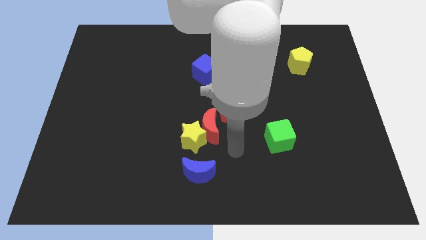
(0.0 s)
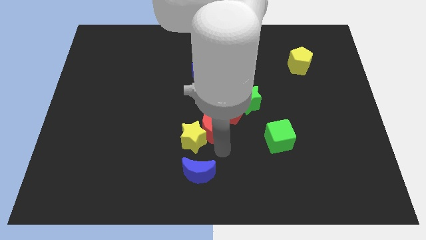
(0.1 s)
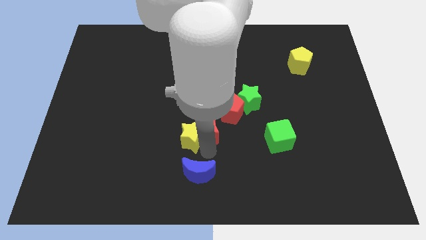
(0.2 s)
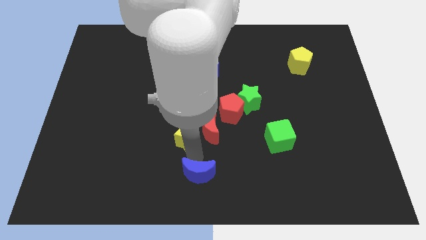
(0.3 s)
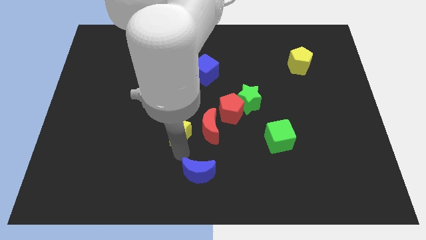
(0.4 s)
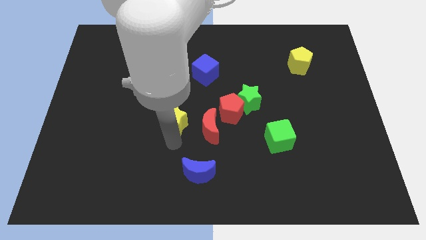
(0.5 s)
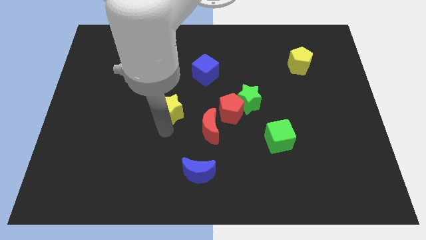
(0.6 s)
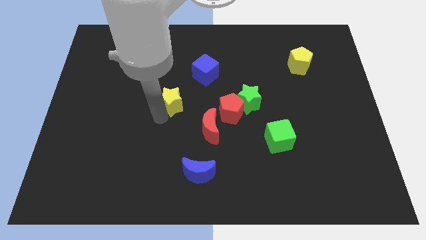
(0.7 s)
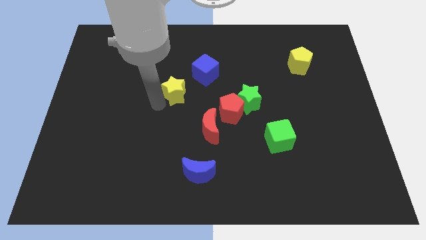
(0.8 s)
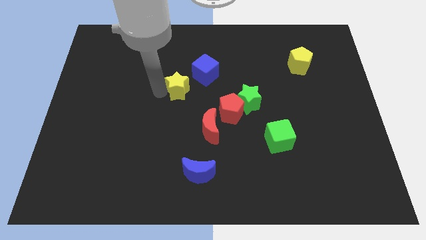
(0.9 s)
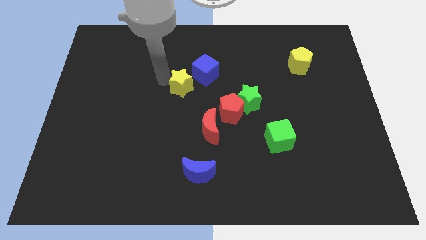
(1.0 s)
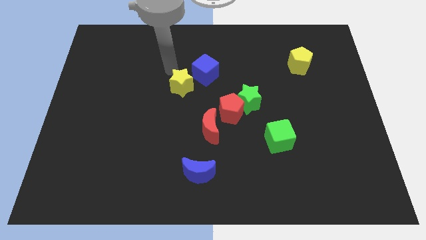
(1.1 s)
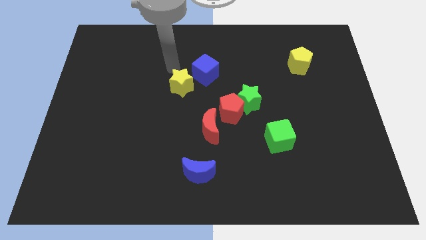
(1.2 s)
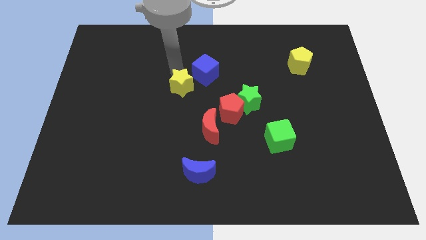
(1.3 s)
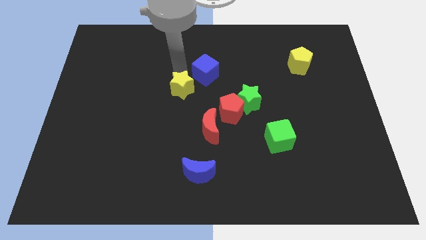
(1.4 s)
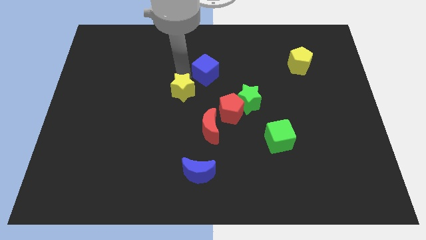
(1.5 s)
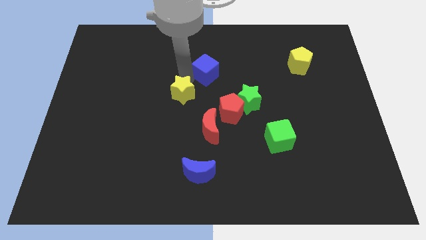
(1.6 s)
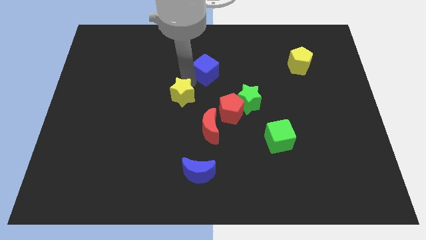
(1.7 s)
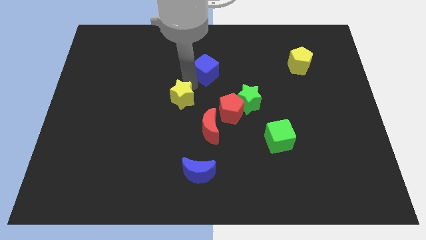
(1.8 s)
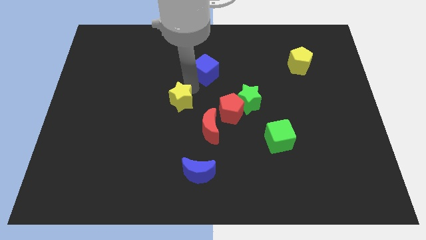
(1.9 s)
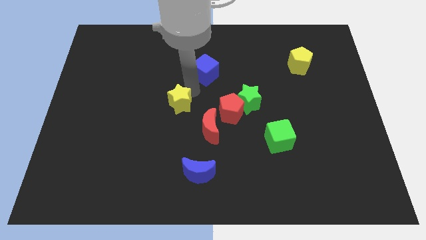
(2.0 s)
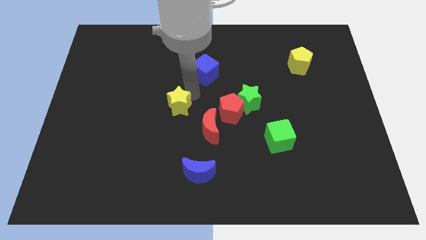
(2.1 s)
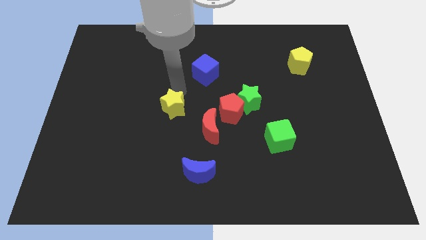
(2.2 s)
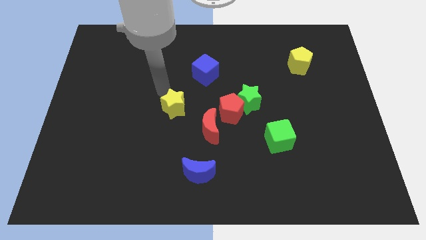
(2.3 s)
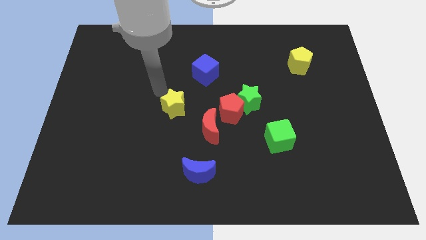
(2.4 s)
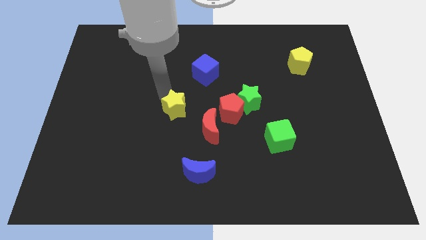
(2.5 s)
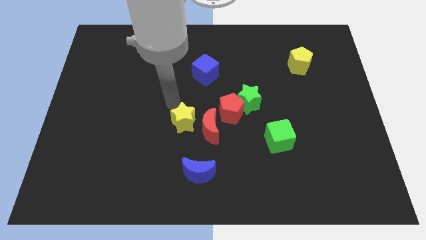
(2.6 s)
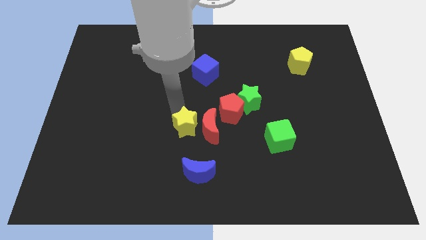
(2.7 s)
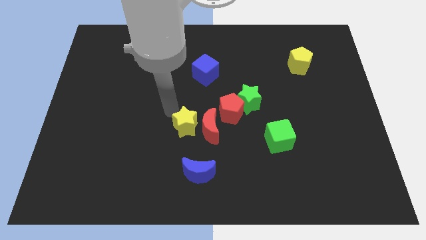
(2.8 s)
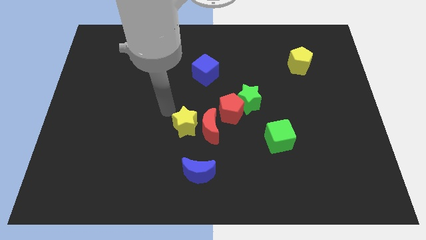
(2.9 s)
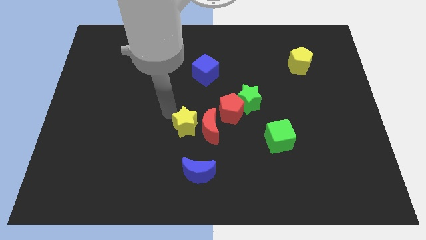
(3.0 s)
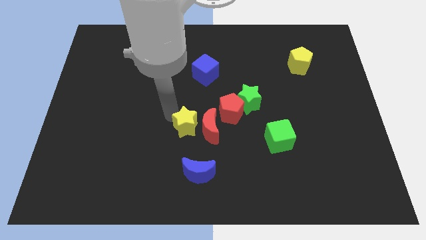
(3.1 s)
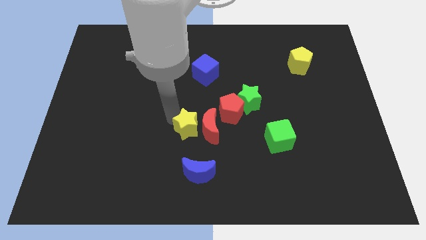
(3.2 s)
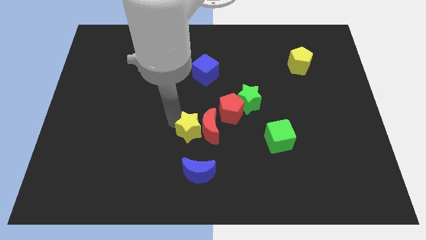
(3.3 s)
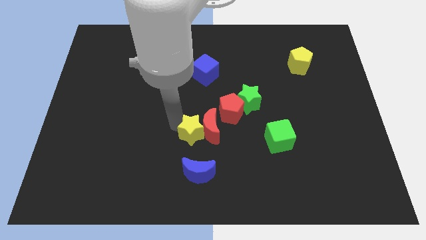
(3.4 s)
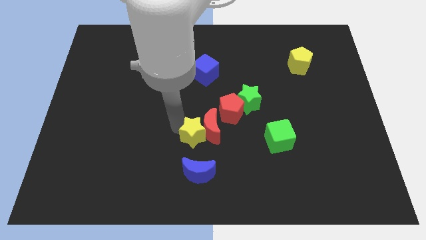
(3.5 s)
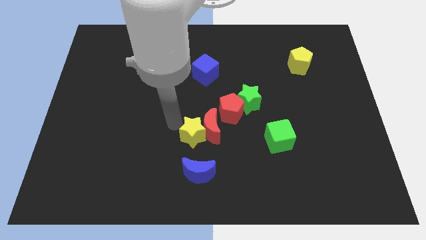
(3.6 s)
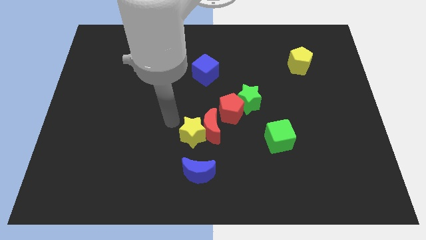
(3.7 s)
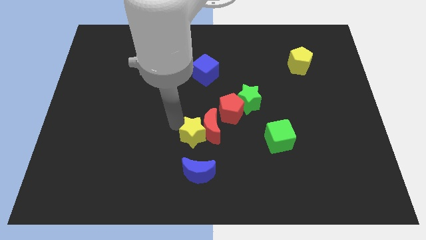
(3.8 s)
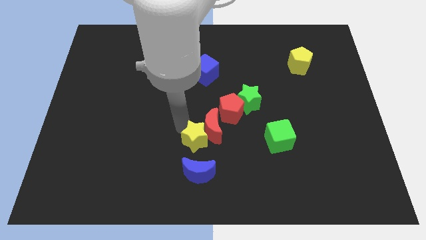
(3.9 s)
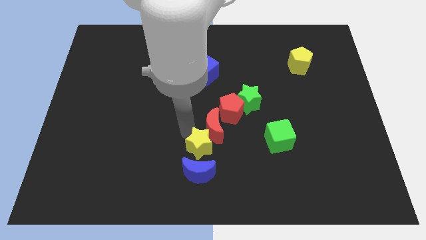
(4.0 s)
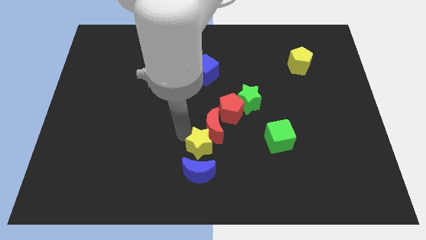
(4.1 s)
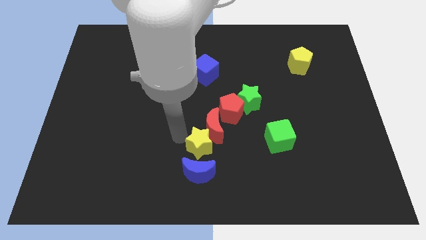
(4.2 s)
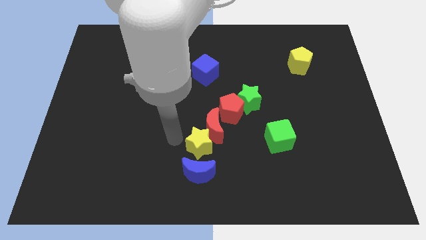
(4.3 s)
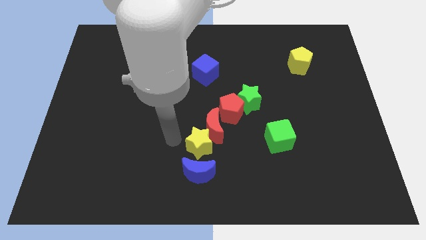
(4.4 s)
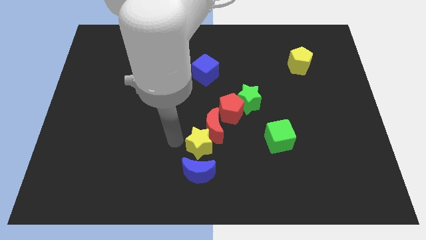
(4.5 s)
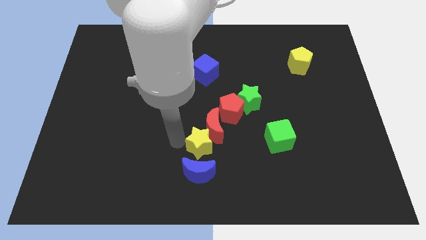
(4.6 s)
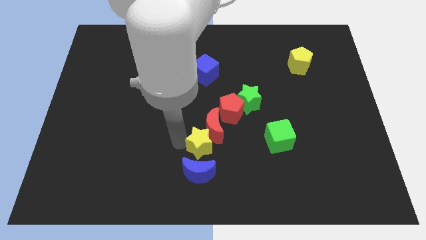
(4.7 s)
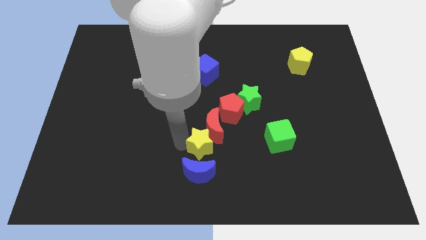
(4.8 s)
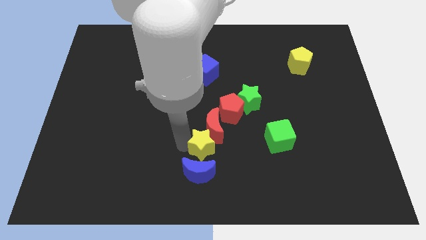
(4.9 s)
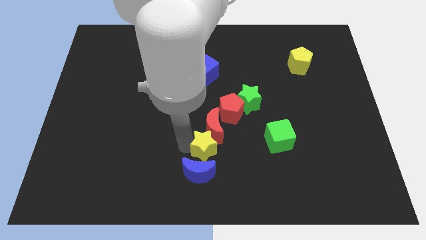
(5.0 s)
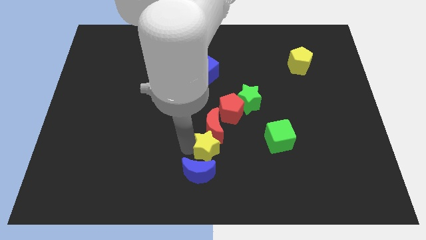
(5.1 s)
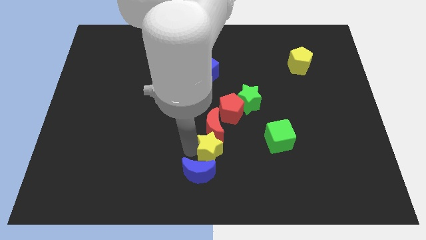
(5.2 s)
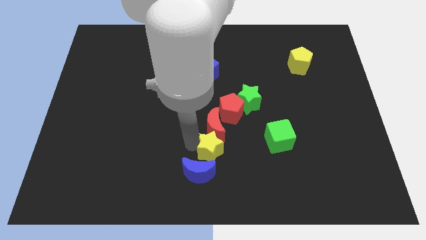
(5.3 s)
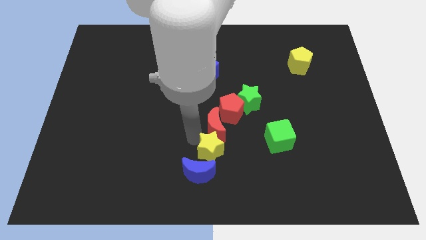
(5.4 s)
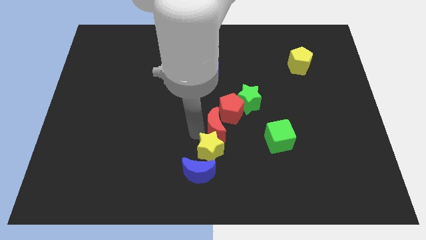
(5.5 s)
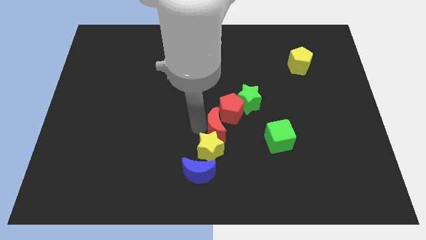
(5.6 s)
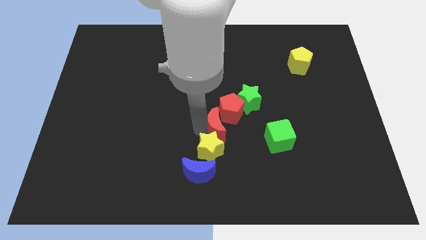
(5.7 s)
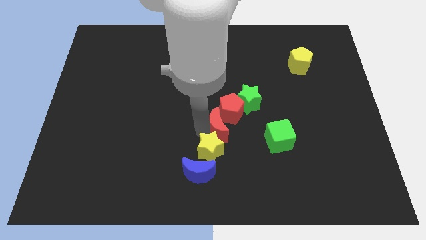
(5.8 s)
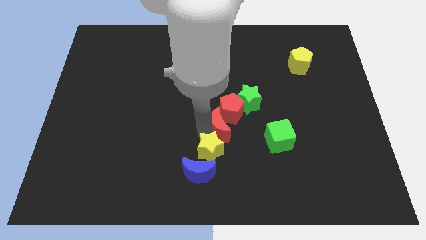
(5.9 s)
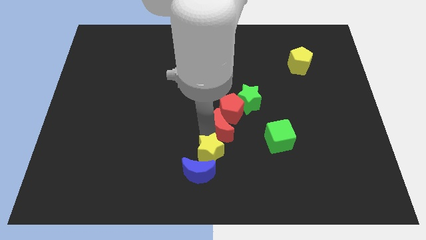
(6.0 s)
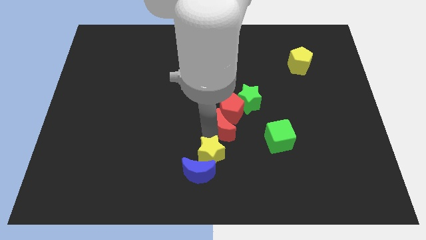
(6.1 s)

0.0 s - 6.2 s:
move the yellow star to the bottom side

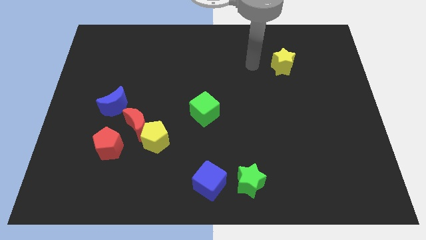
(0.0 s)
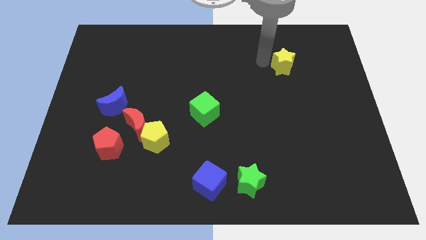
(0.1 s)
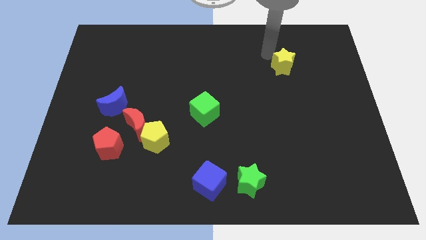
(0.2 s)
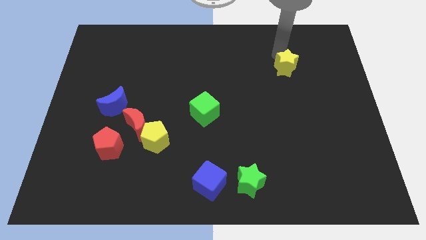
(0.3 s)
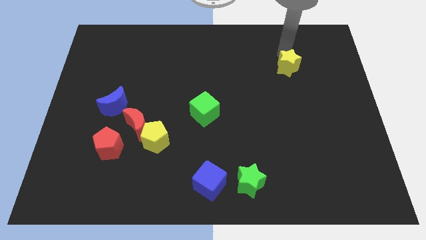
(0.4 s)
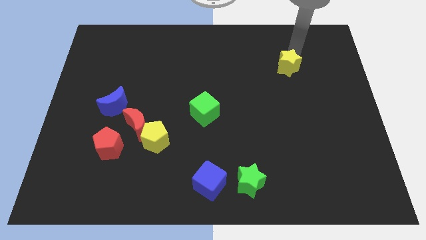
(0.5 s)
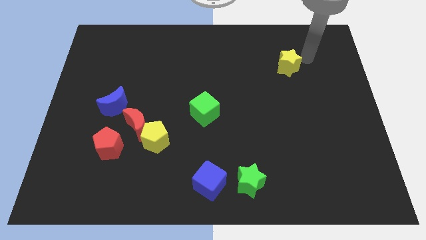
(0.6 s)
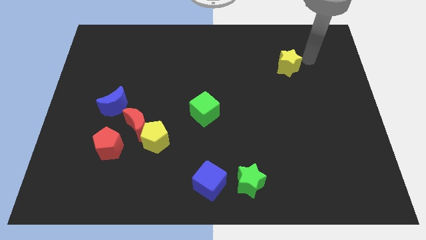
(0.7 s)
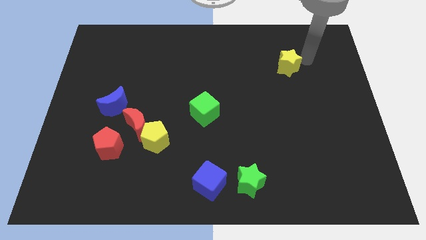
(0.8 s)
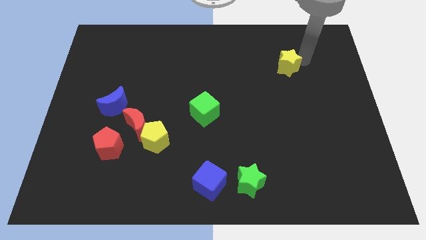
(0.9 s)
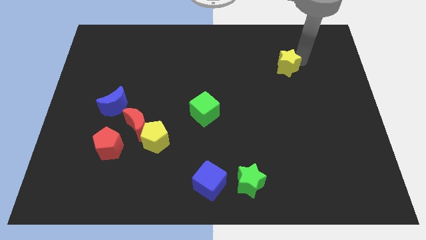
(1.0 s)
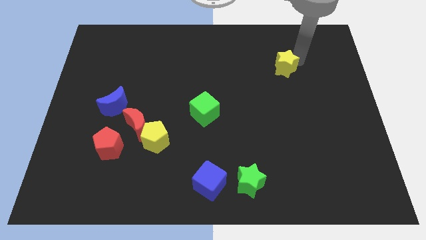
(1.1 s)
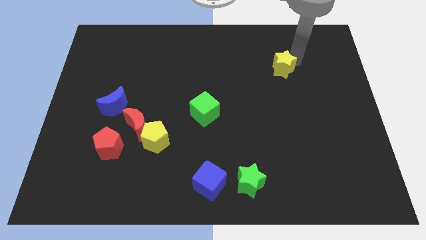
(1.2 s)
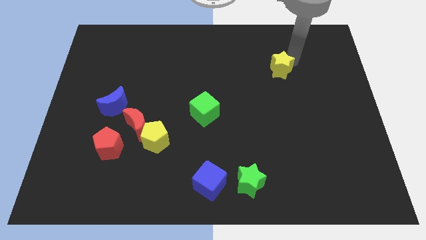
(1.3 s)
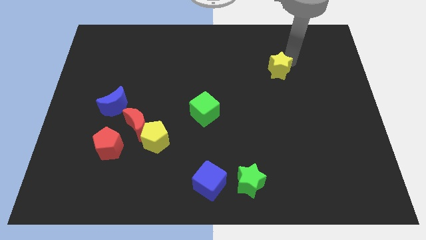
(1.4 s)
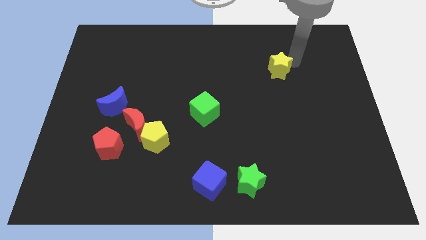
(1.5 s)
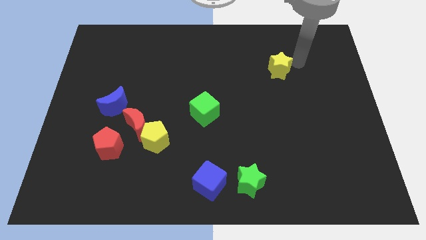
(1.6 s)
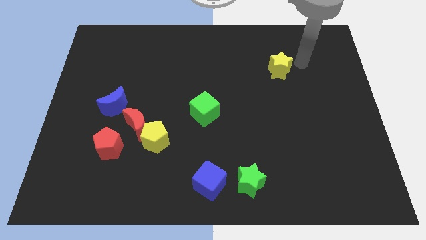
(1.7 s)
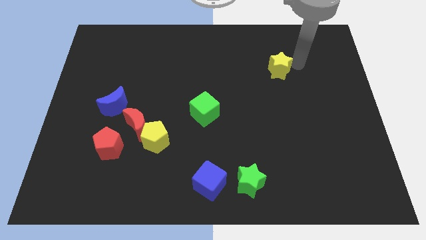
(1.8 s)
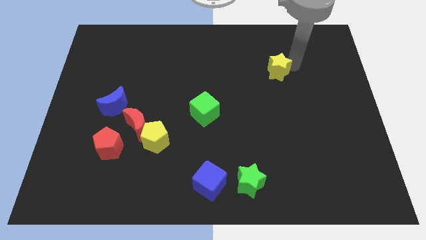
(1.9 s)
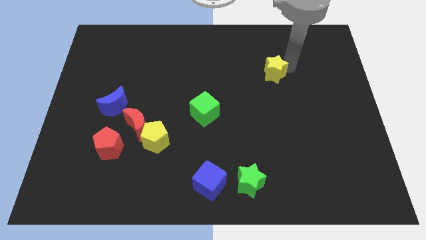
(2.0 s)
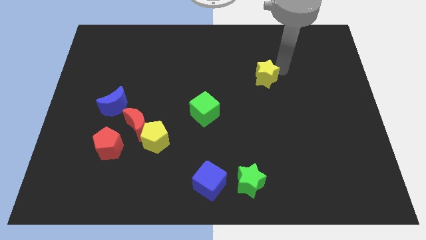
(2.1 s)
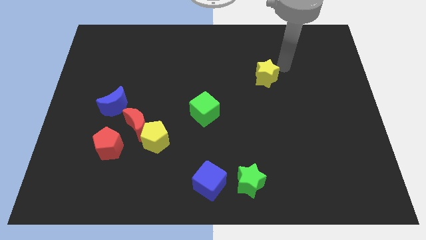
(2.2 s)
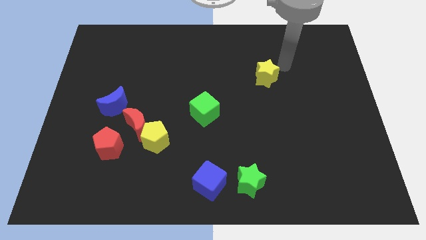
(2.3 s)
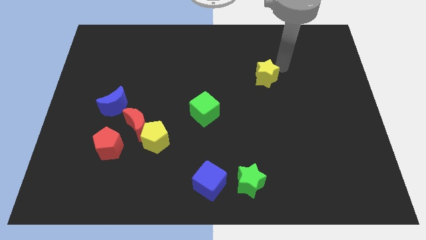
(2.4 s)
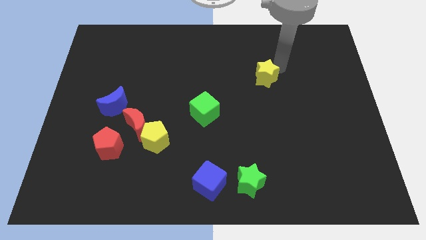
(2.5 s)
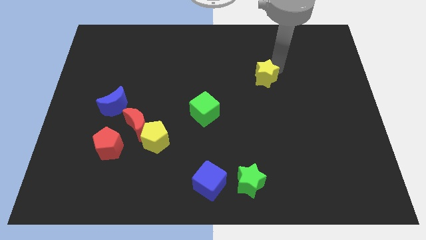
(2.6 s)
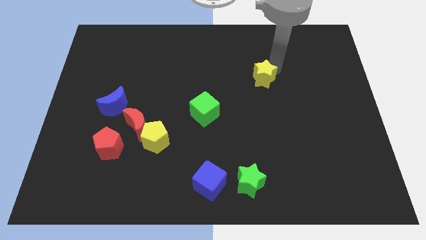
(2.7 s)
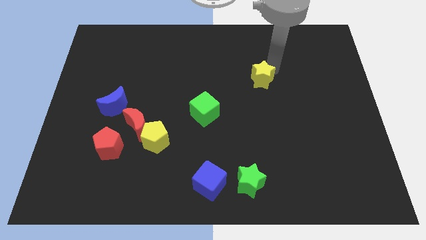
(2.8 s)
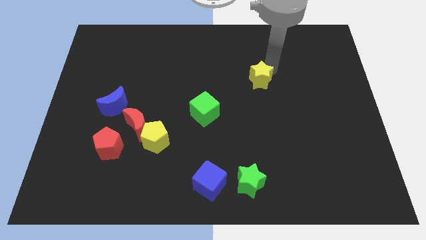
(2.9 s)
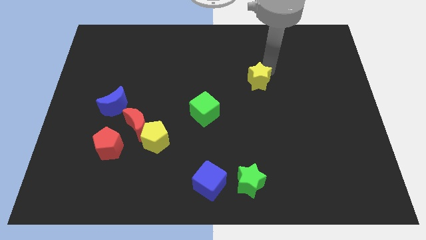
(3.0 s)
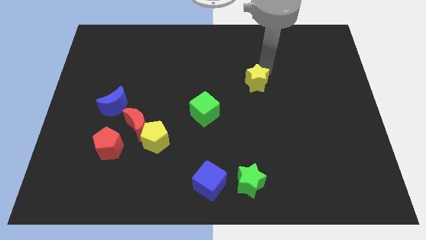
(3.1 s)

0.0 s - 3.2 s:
slide the yellow star to the middle
